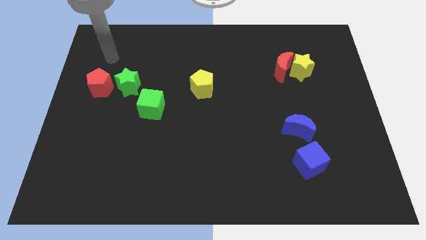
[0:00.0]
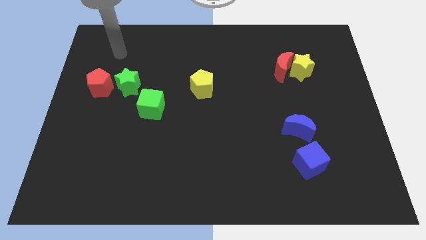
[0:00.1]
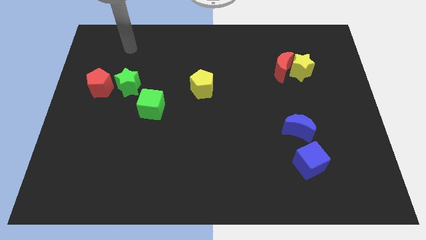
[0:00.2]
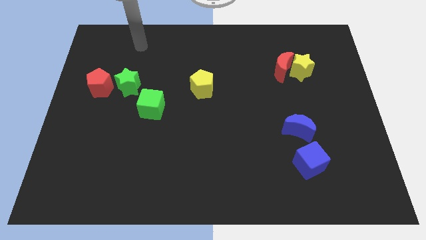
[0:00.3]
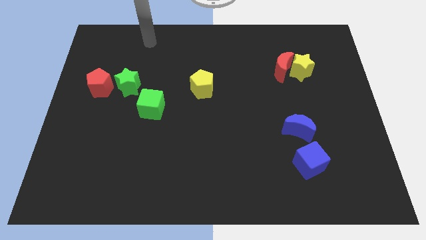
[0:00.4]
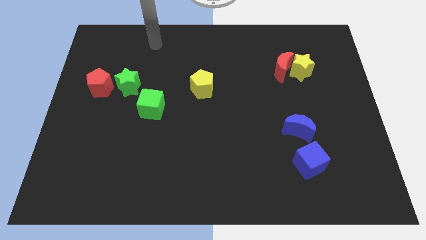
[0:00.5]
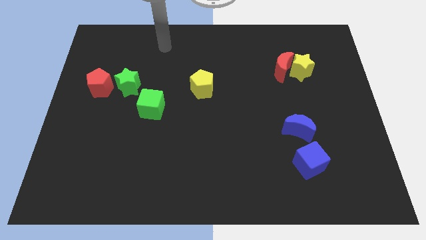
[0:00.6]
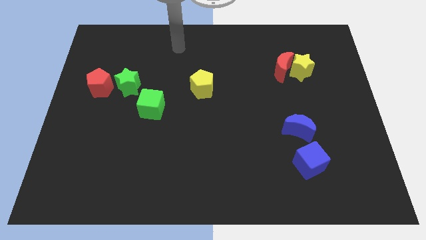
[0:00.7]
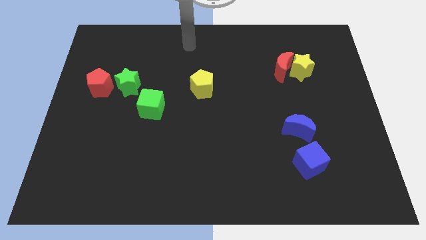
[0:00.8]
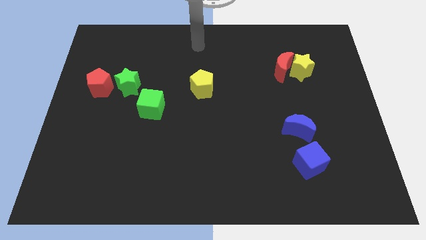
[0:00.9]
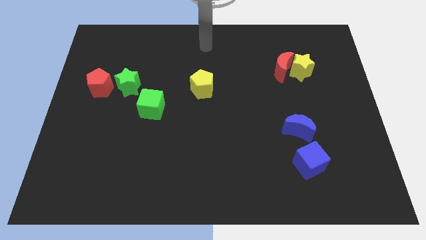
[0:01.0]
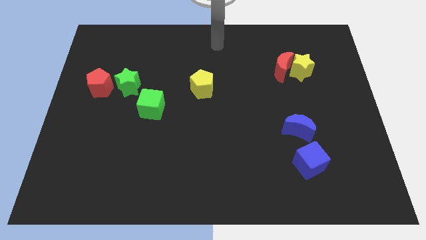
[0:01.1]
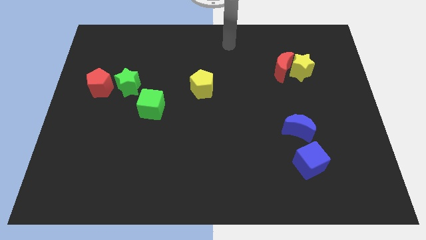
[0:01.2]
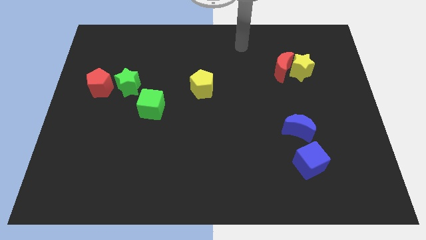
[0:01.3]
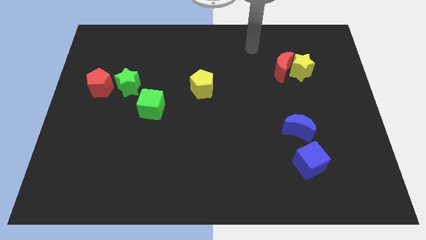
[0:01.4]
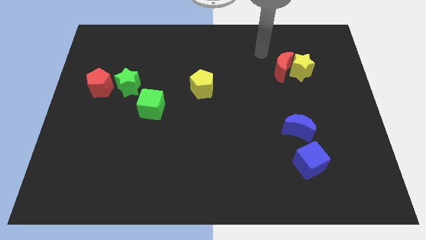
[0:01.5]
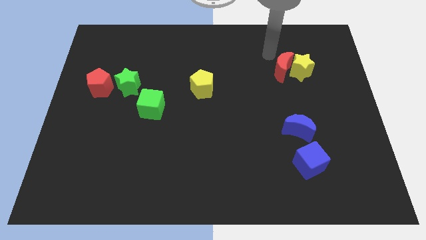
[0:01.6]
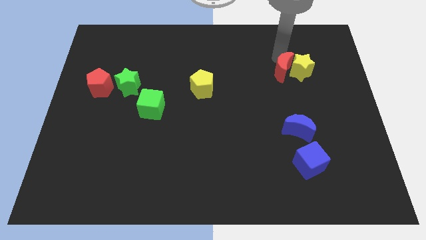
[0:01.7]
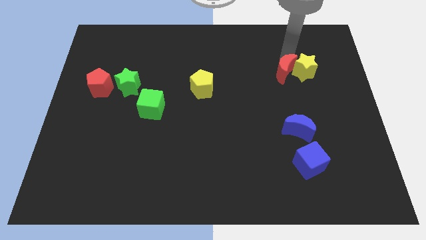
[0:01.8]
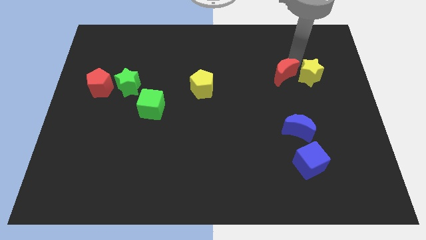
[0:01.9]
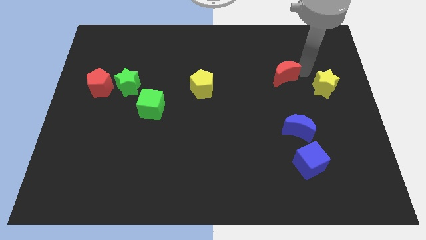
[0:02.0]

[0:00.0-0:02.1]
separate the red moon from the yellow star

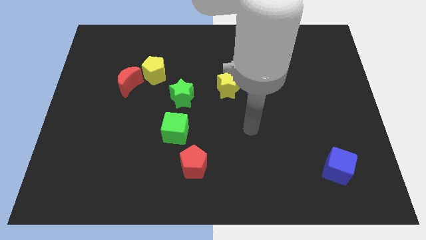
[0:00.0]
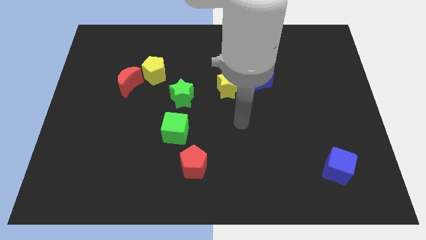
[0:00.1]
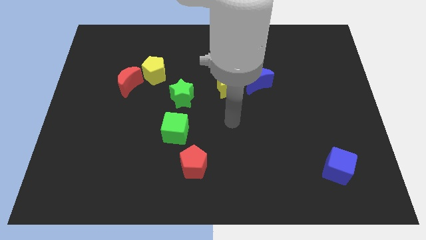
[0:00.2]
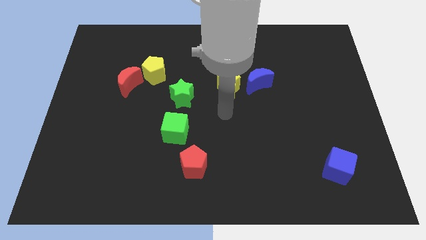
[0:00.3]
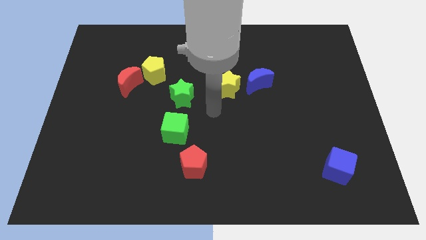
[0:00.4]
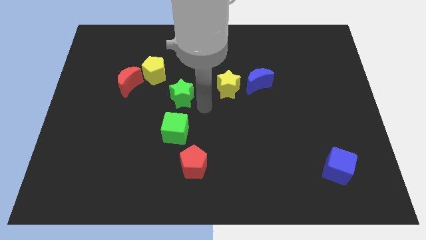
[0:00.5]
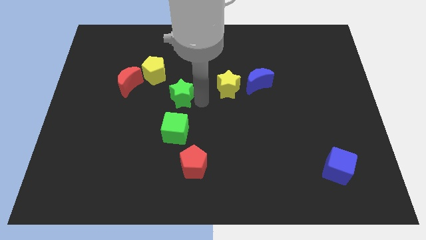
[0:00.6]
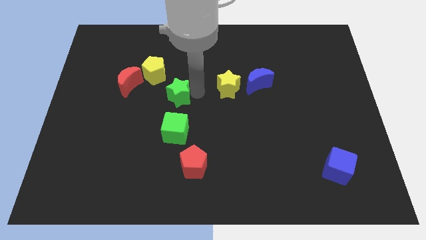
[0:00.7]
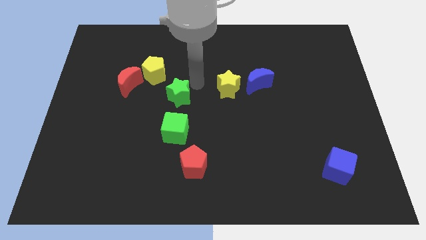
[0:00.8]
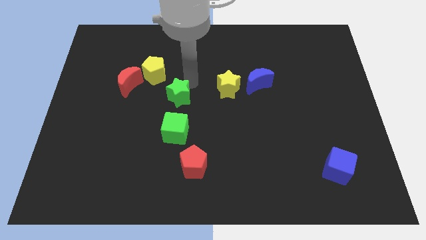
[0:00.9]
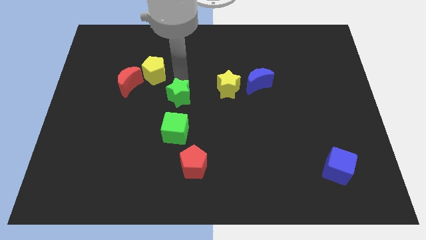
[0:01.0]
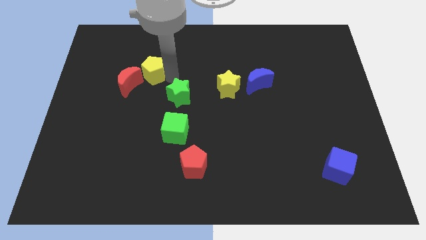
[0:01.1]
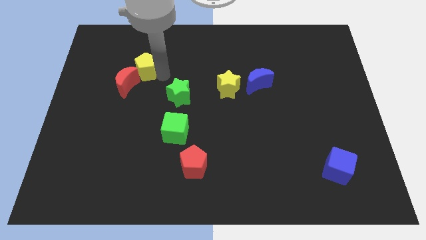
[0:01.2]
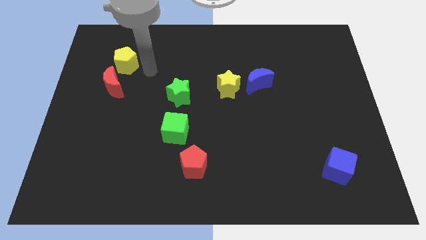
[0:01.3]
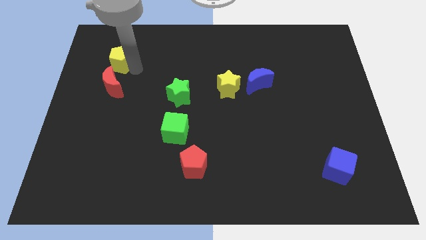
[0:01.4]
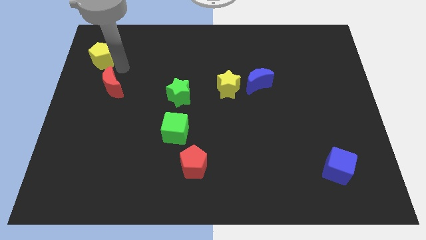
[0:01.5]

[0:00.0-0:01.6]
separate the red moon from the yellow pentagon

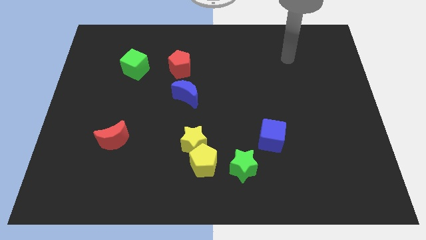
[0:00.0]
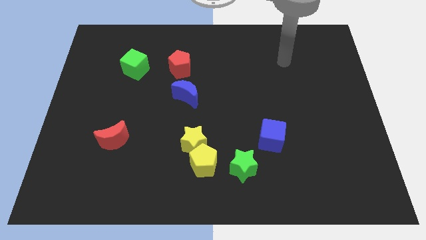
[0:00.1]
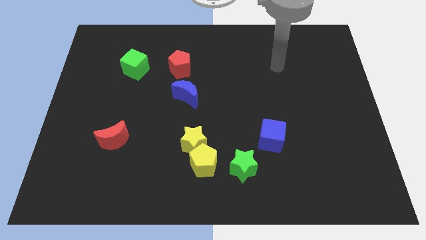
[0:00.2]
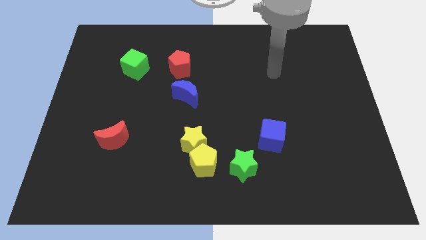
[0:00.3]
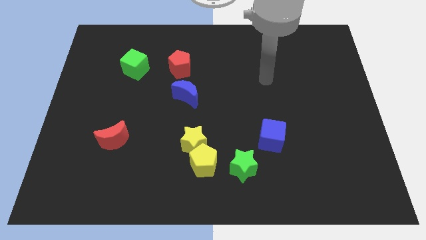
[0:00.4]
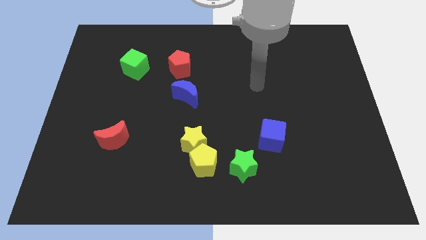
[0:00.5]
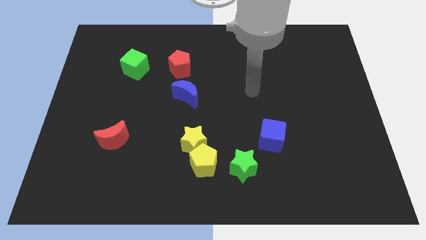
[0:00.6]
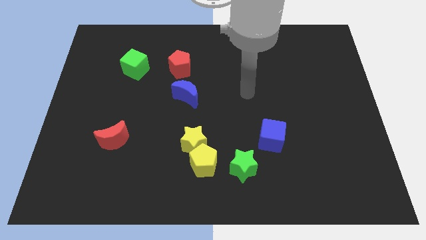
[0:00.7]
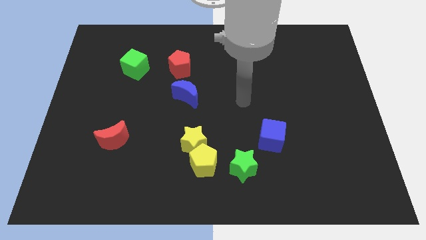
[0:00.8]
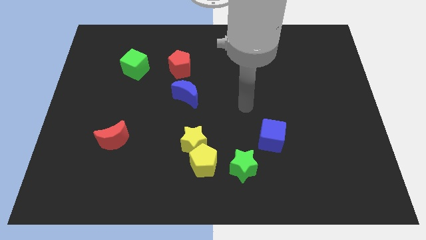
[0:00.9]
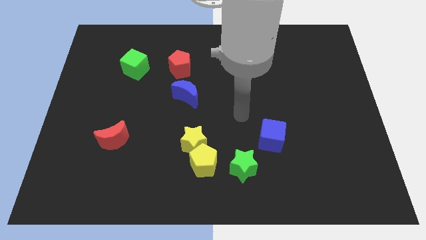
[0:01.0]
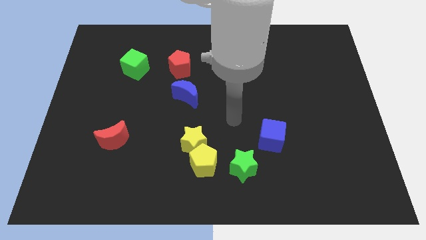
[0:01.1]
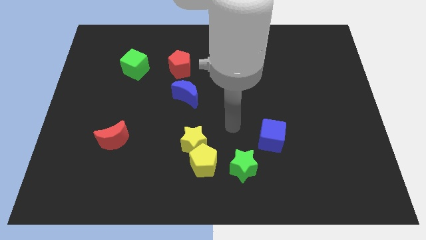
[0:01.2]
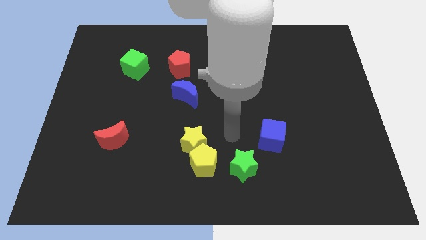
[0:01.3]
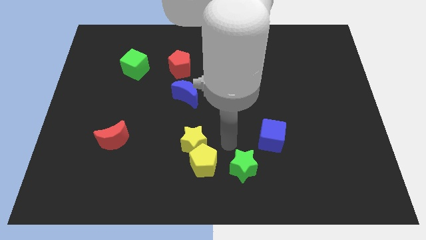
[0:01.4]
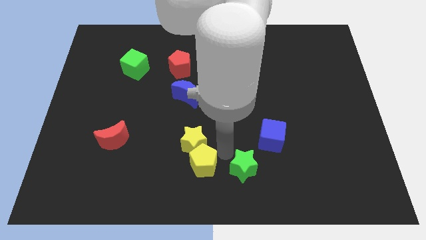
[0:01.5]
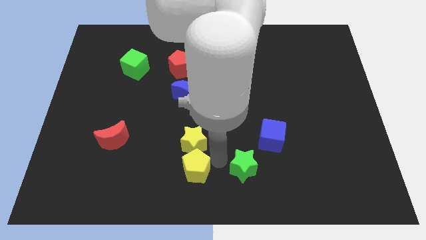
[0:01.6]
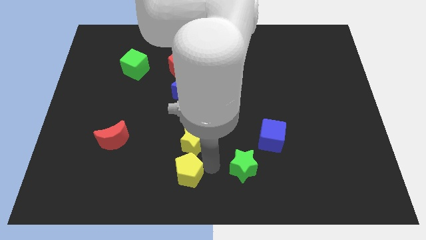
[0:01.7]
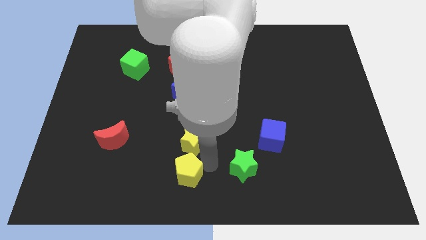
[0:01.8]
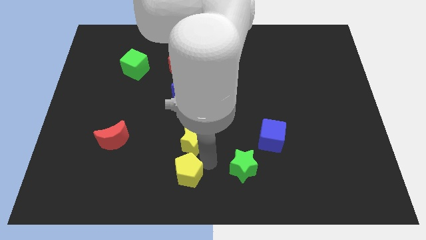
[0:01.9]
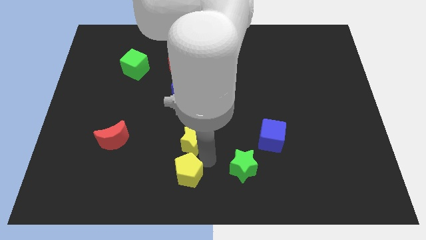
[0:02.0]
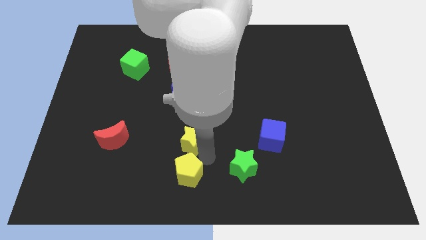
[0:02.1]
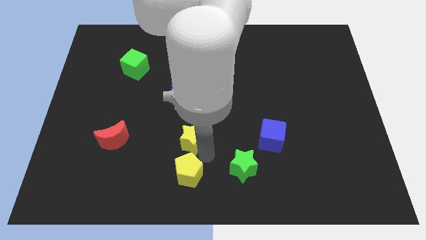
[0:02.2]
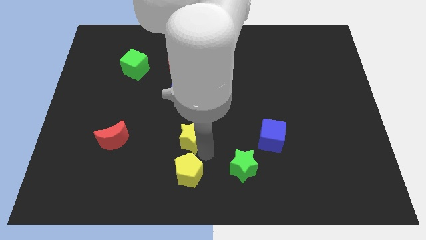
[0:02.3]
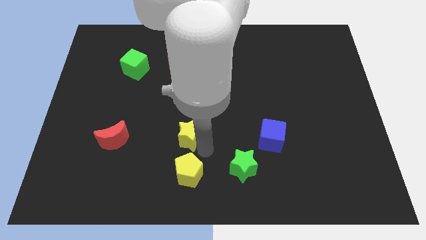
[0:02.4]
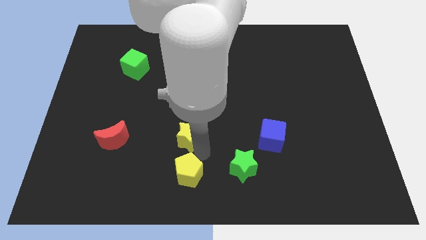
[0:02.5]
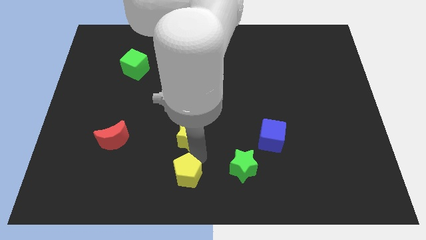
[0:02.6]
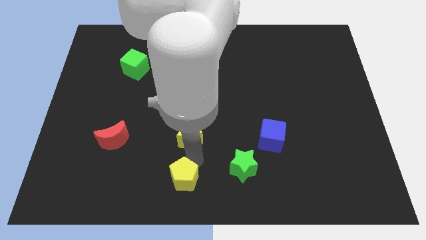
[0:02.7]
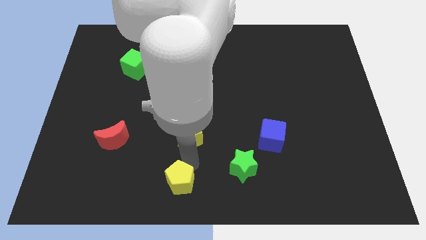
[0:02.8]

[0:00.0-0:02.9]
pull the yellow star apart from the yellow pentagon

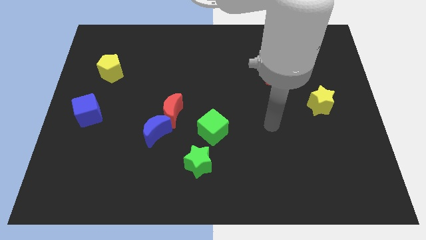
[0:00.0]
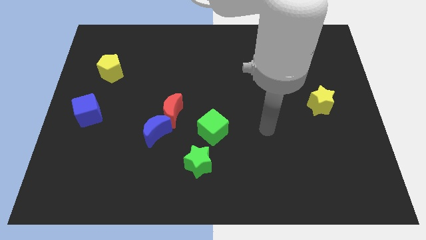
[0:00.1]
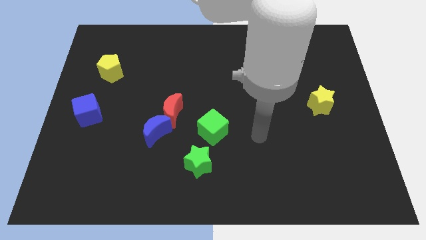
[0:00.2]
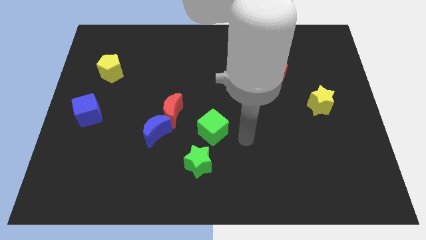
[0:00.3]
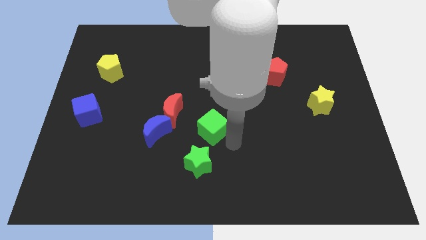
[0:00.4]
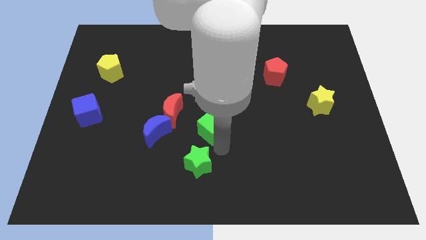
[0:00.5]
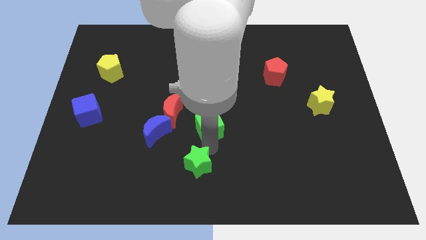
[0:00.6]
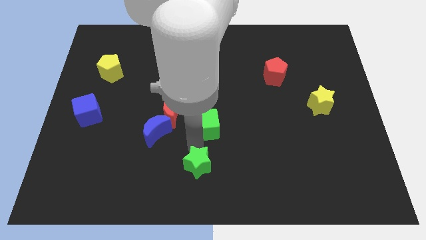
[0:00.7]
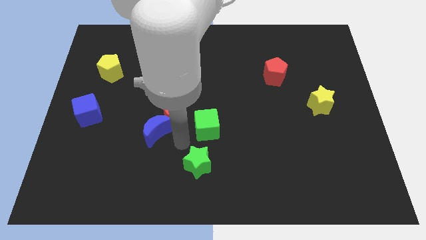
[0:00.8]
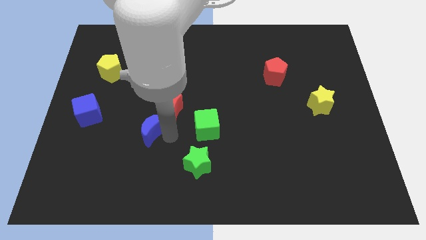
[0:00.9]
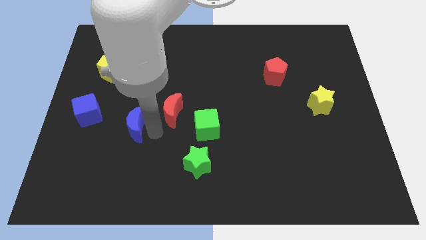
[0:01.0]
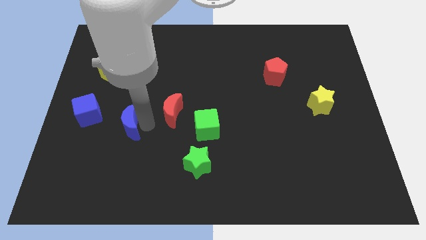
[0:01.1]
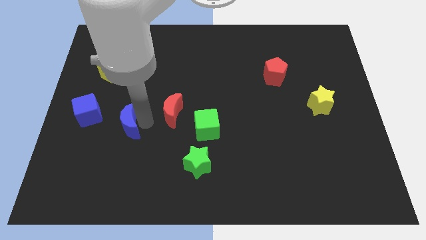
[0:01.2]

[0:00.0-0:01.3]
separate the red moon from the blue moon

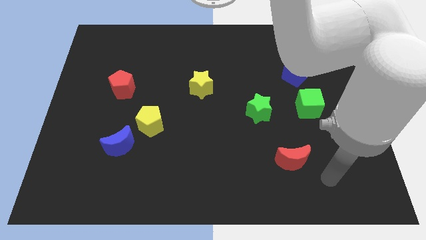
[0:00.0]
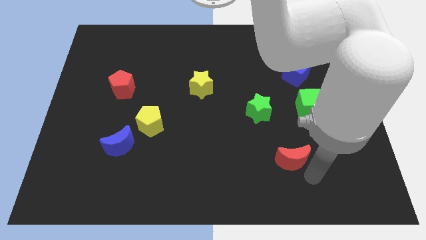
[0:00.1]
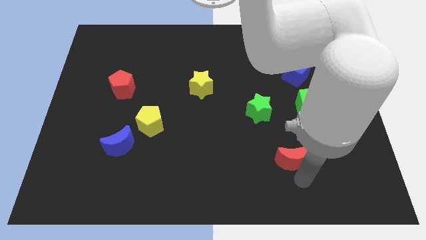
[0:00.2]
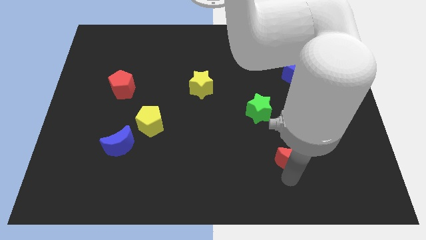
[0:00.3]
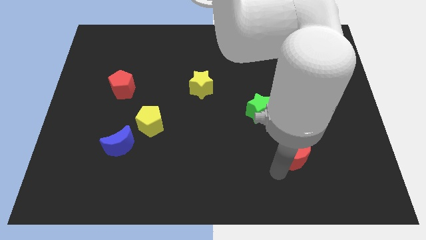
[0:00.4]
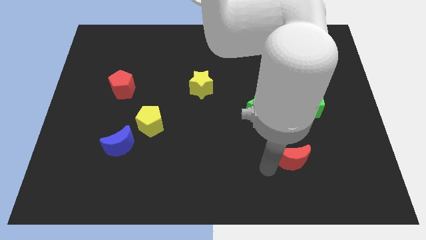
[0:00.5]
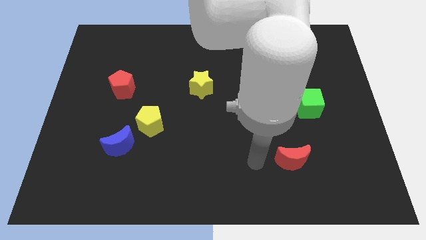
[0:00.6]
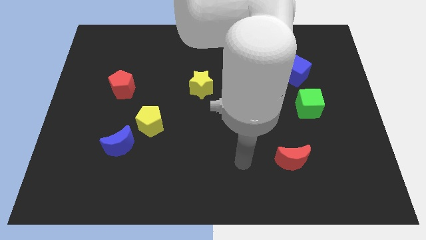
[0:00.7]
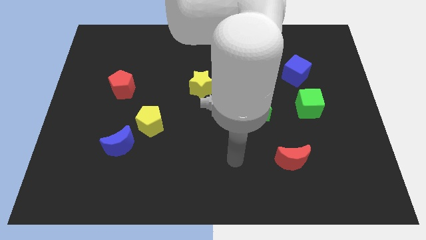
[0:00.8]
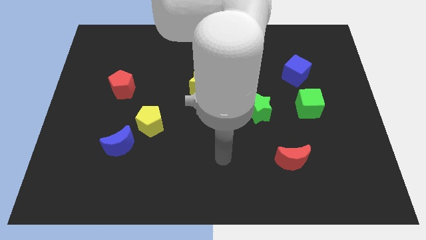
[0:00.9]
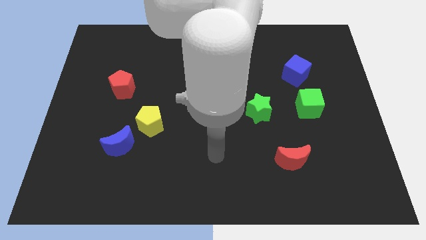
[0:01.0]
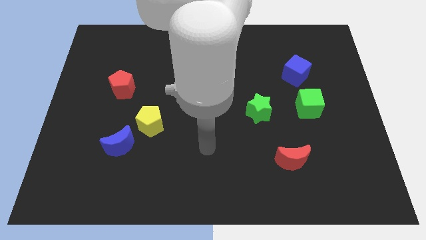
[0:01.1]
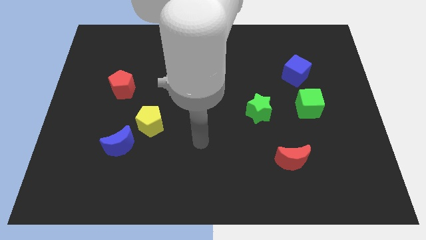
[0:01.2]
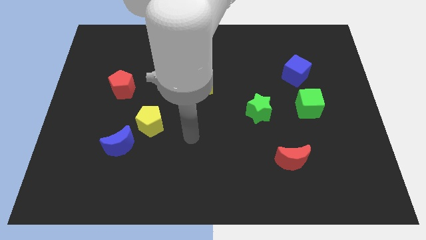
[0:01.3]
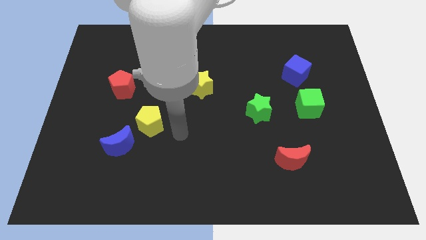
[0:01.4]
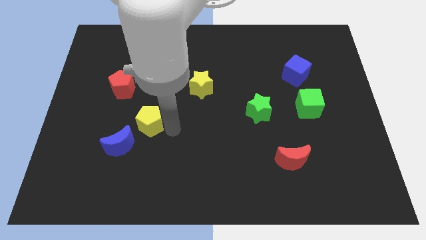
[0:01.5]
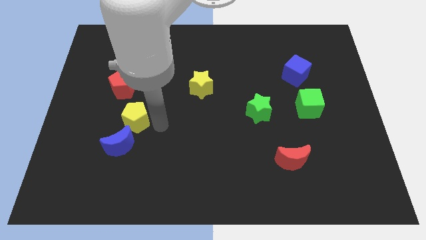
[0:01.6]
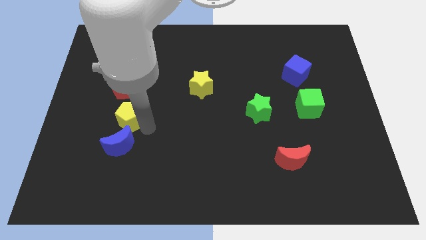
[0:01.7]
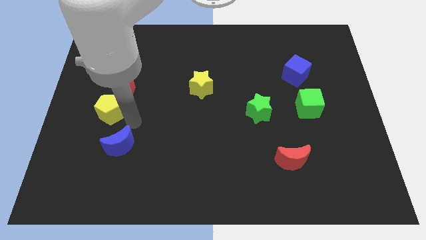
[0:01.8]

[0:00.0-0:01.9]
move the blue moon away from the yellow pentagon
